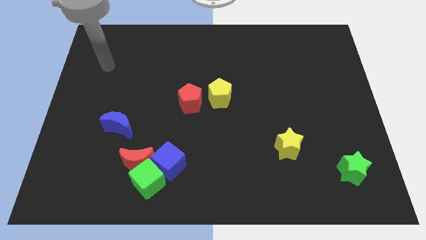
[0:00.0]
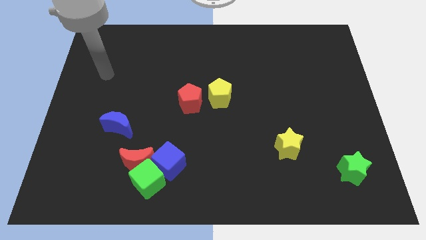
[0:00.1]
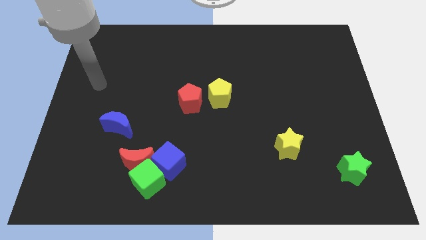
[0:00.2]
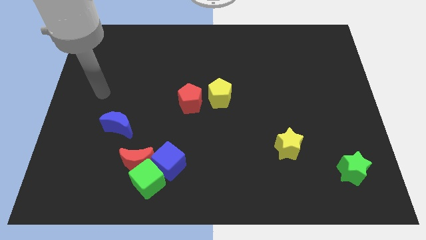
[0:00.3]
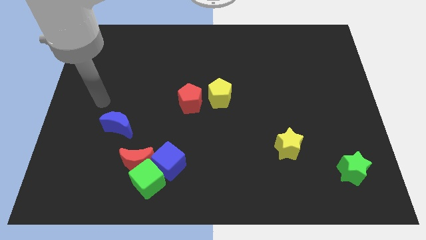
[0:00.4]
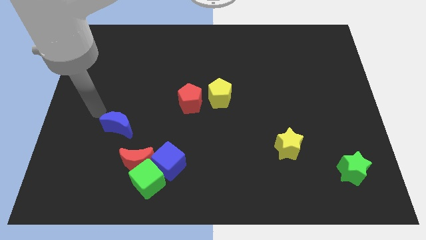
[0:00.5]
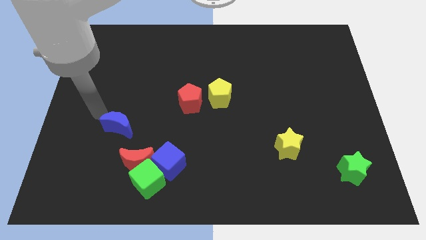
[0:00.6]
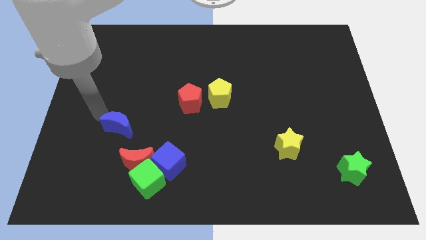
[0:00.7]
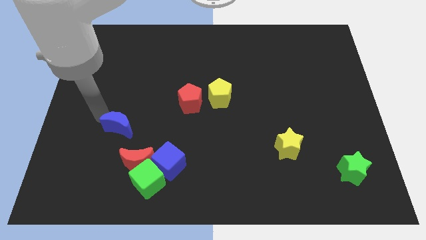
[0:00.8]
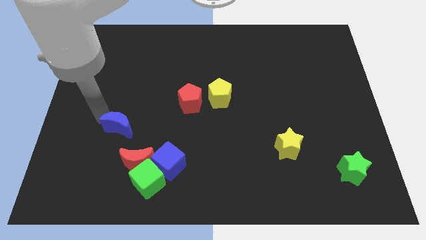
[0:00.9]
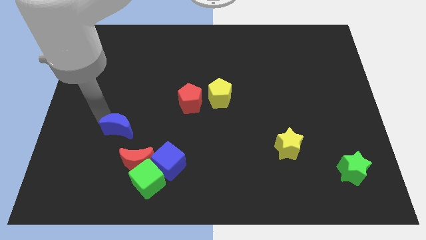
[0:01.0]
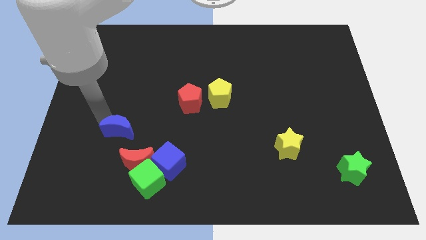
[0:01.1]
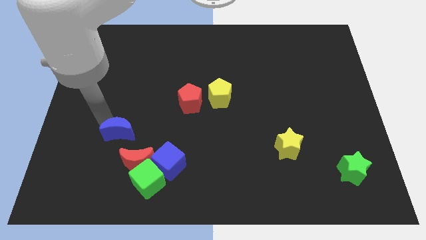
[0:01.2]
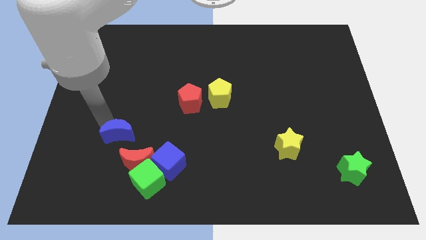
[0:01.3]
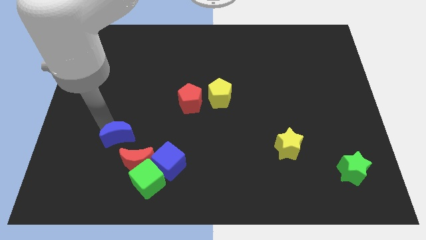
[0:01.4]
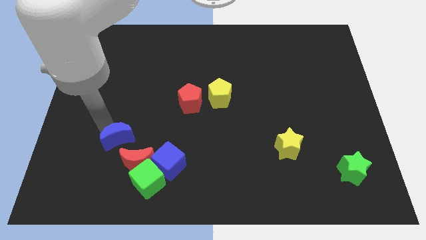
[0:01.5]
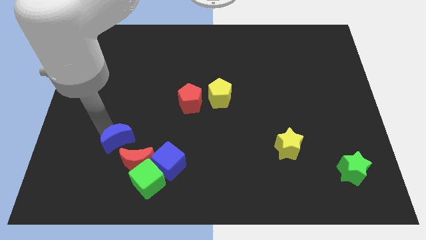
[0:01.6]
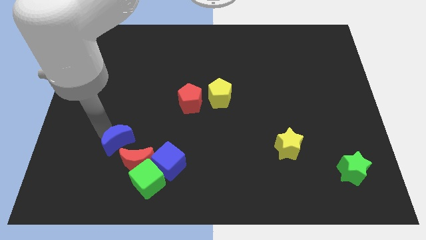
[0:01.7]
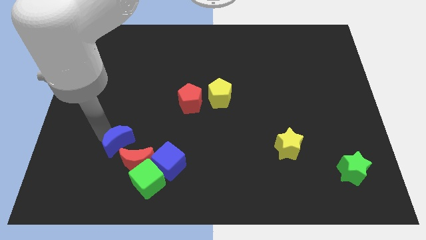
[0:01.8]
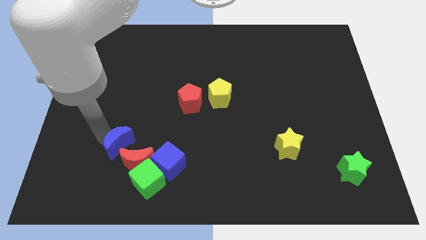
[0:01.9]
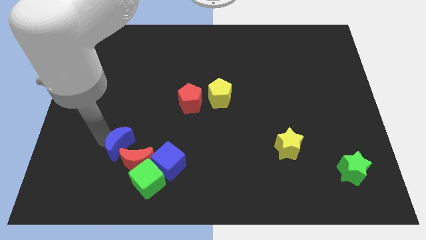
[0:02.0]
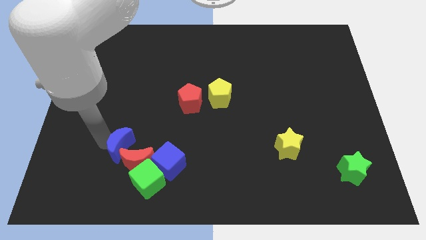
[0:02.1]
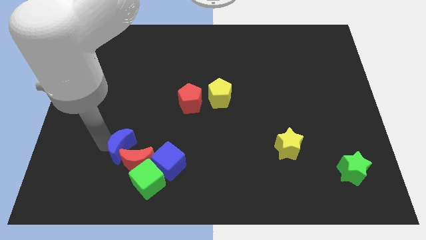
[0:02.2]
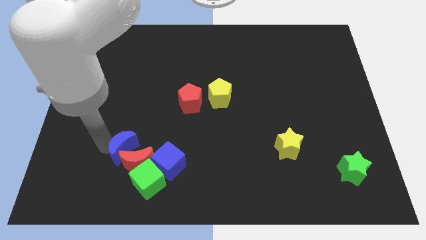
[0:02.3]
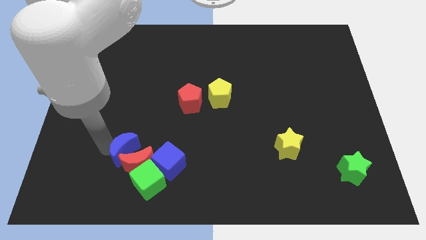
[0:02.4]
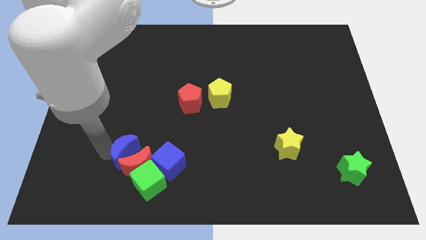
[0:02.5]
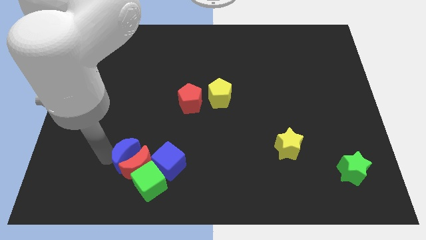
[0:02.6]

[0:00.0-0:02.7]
slightly slide the blue moon downwards and right diagonally

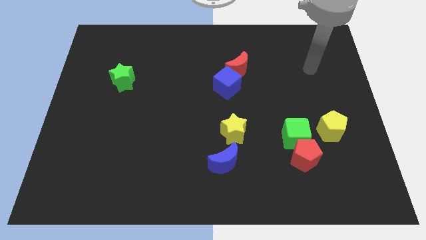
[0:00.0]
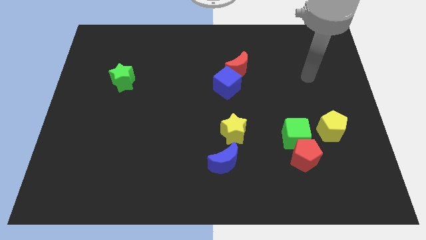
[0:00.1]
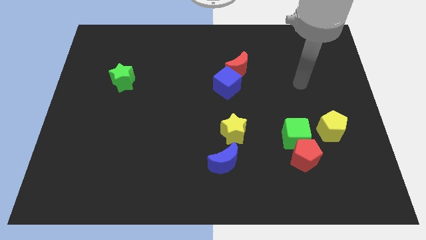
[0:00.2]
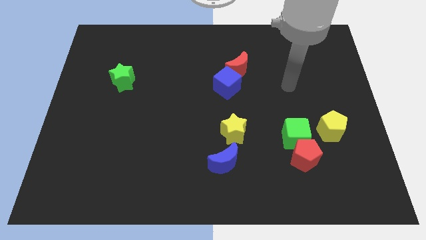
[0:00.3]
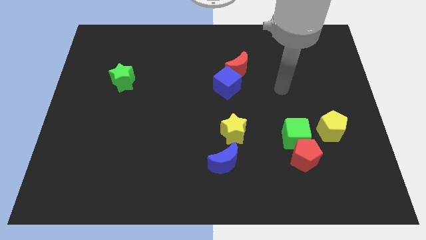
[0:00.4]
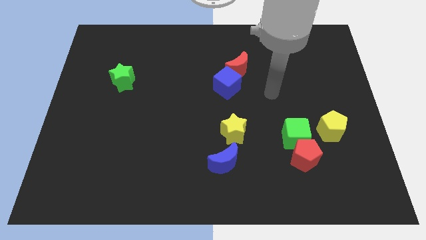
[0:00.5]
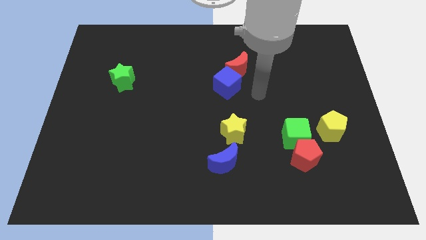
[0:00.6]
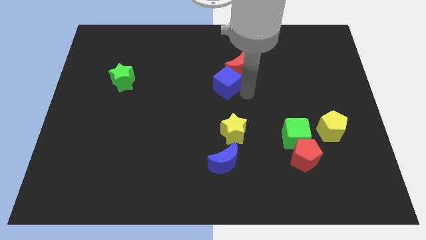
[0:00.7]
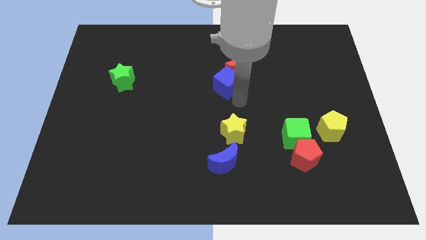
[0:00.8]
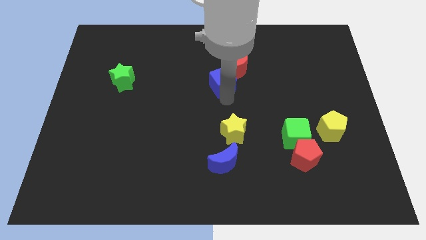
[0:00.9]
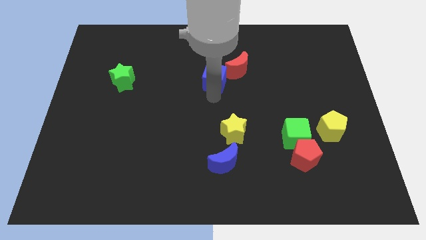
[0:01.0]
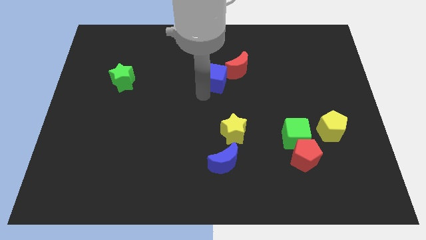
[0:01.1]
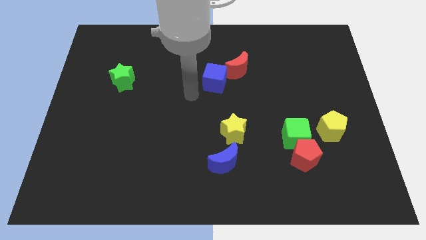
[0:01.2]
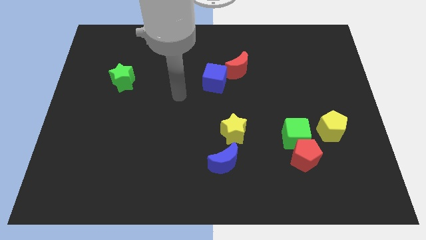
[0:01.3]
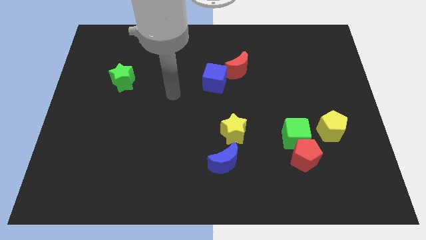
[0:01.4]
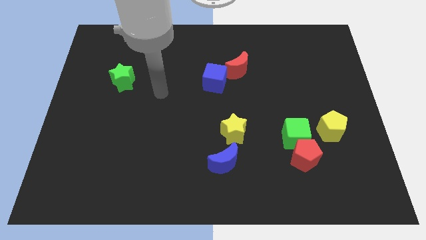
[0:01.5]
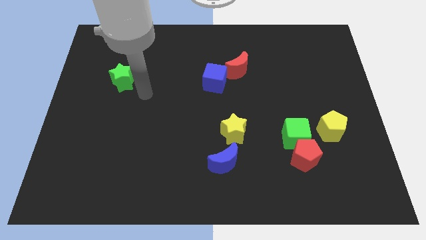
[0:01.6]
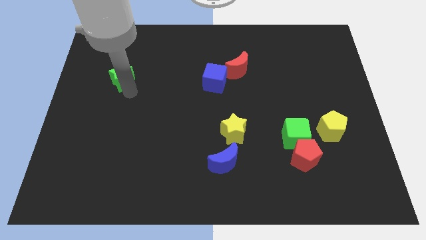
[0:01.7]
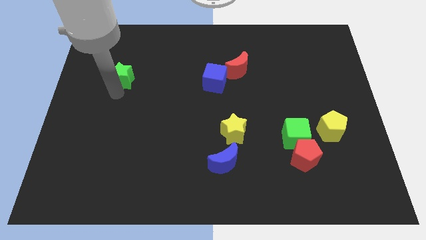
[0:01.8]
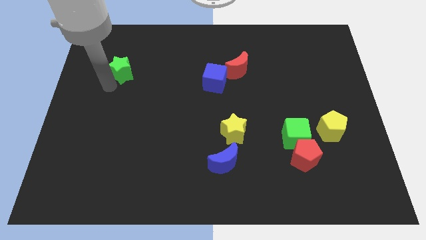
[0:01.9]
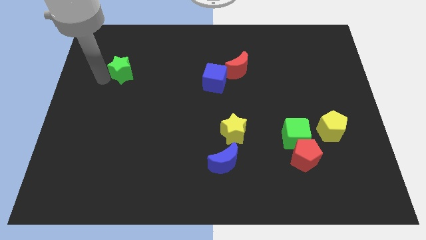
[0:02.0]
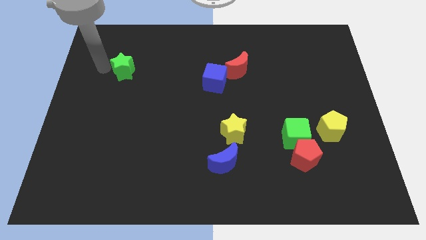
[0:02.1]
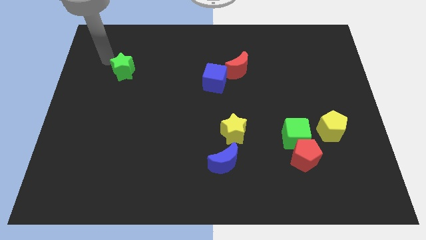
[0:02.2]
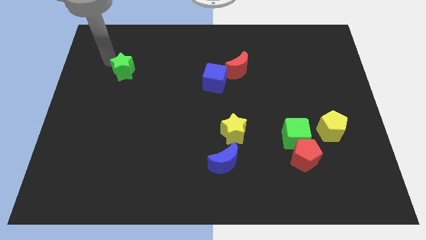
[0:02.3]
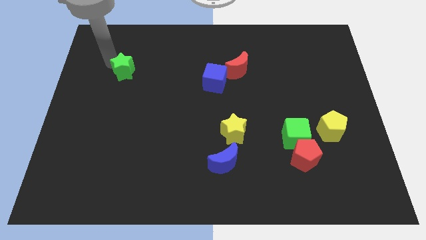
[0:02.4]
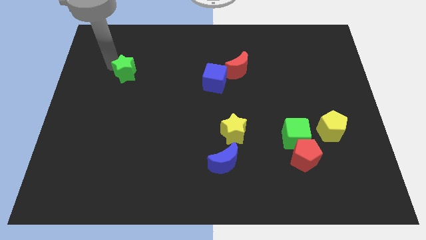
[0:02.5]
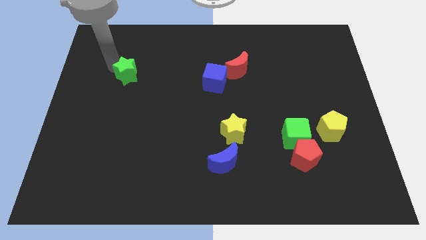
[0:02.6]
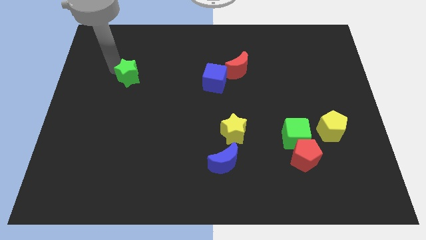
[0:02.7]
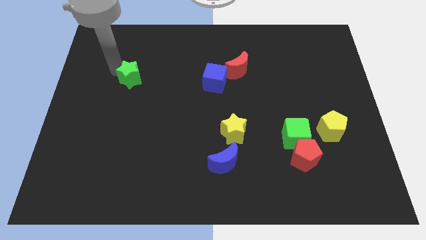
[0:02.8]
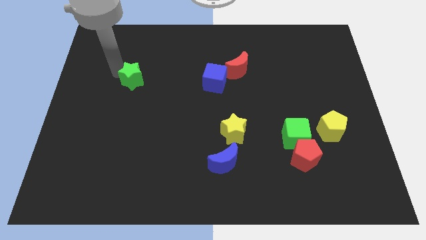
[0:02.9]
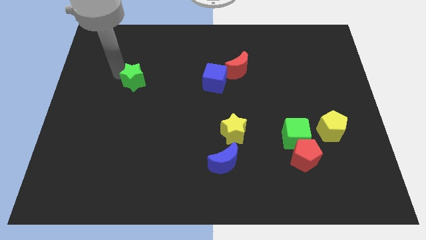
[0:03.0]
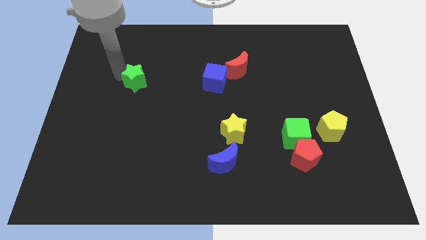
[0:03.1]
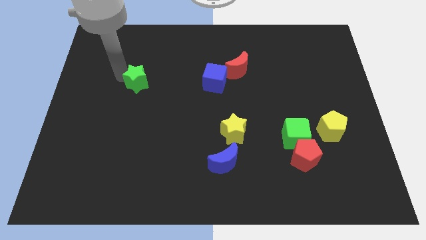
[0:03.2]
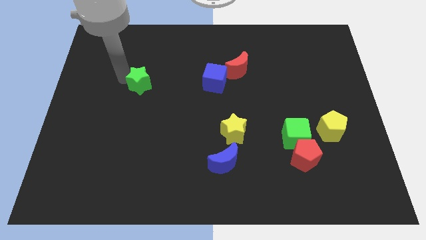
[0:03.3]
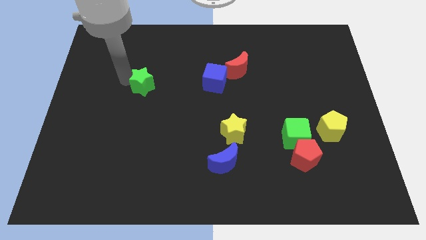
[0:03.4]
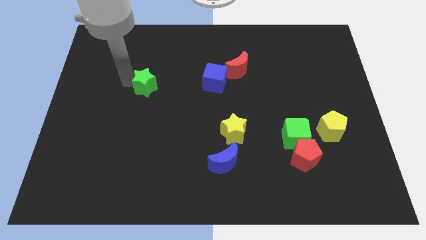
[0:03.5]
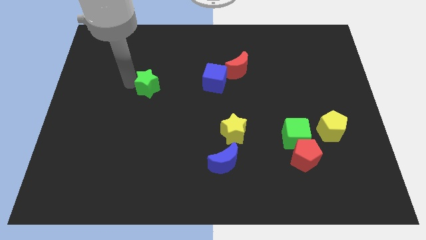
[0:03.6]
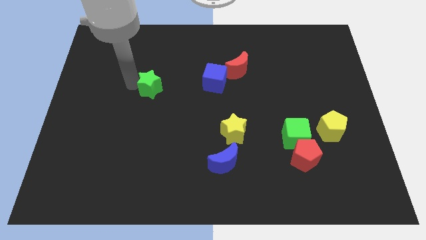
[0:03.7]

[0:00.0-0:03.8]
move the green star a little right

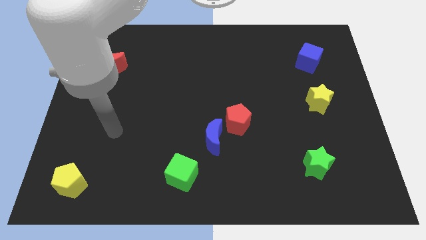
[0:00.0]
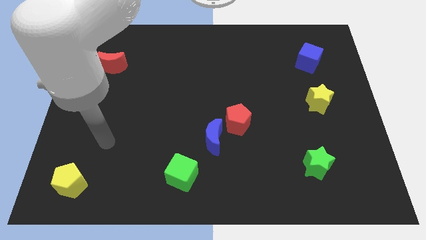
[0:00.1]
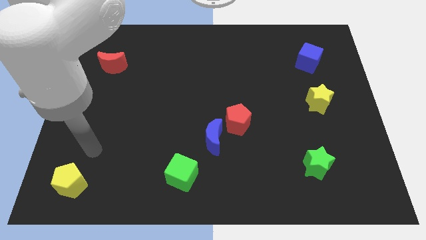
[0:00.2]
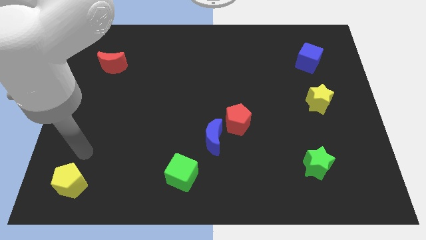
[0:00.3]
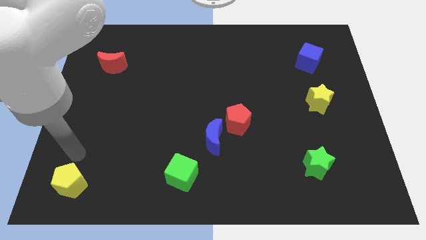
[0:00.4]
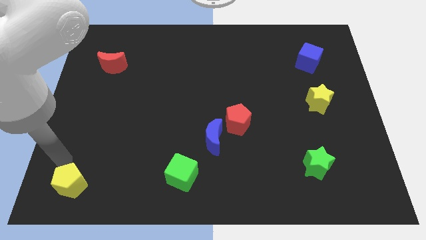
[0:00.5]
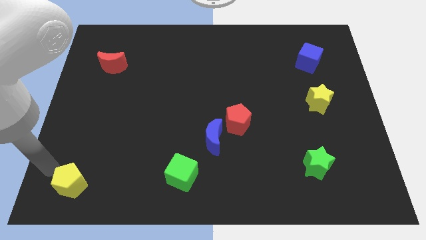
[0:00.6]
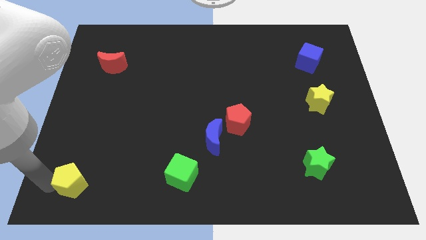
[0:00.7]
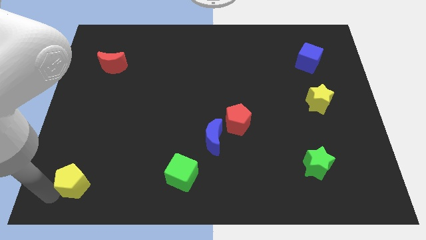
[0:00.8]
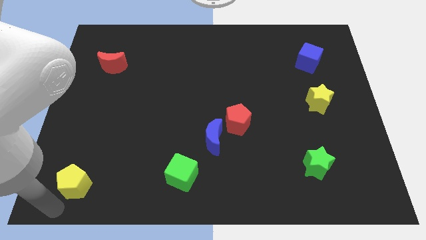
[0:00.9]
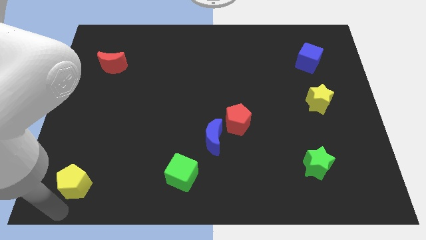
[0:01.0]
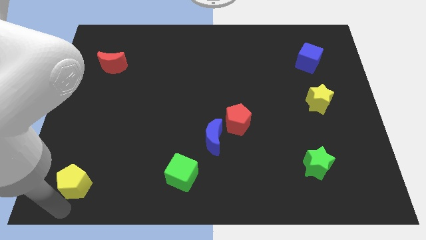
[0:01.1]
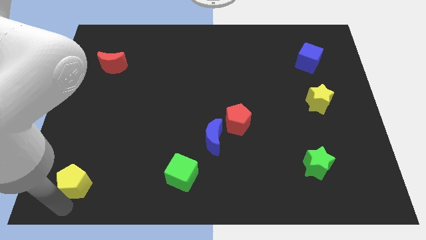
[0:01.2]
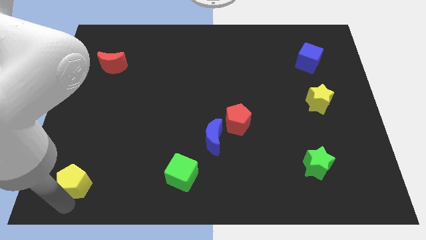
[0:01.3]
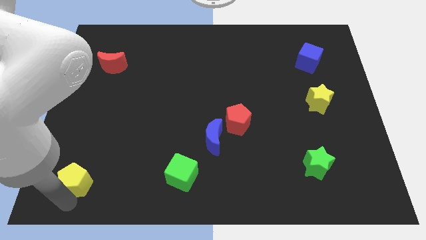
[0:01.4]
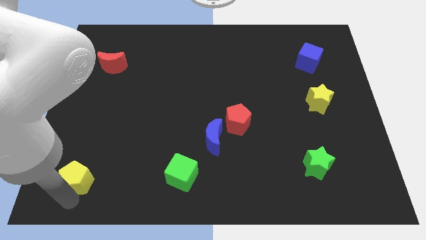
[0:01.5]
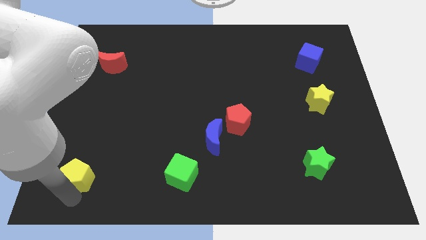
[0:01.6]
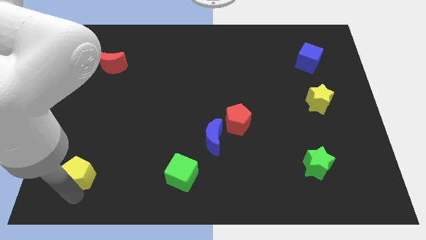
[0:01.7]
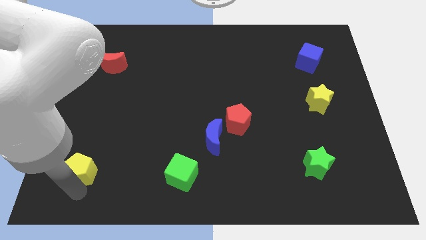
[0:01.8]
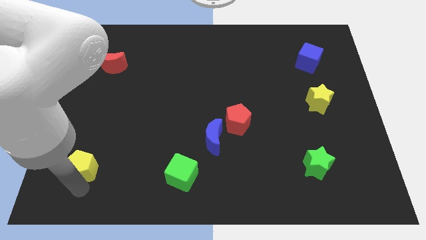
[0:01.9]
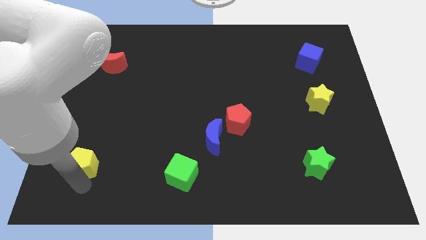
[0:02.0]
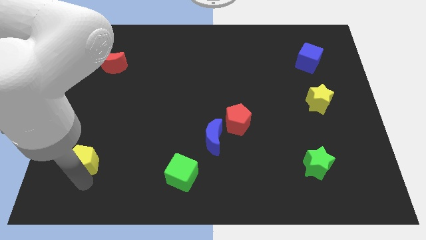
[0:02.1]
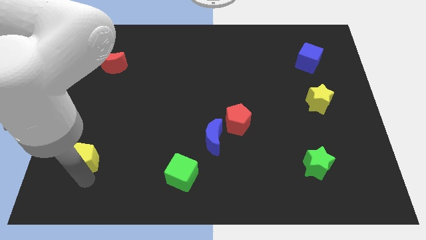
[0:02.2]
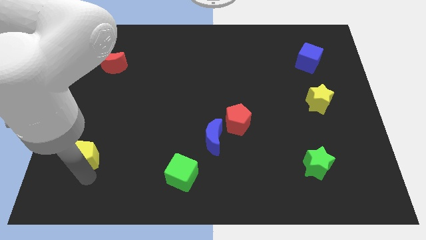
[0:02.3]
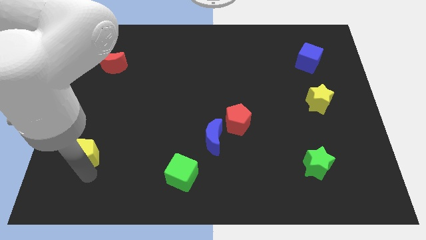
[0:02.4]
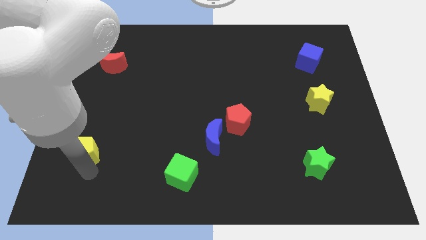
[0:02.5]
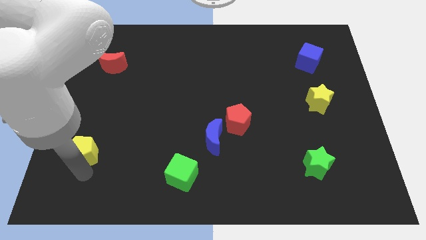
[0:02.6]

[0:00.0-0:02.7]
slide the yellow pentagon somewhat up
